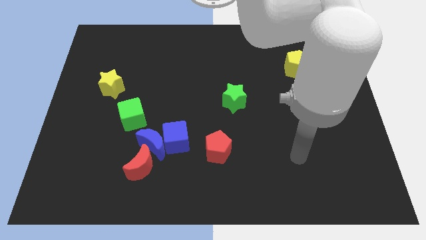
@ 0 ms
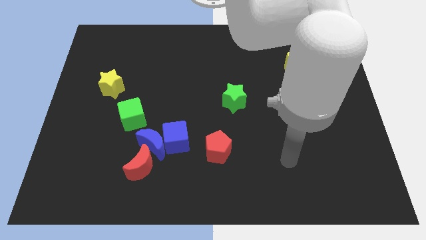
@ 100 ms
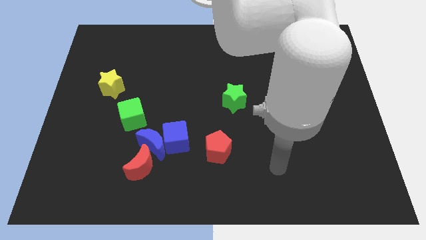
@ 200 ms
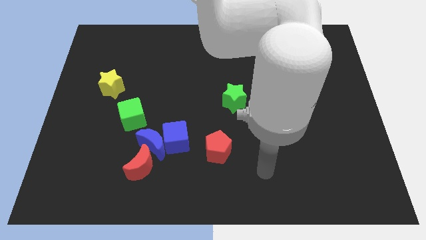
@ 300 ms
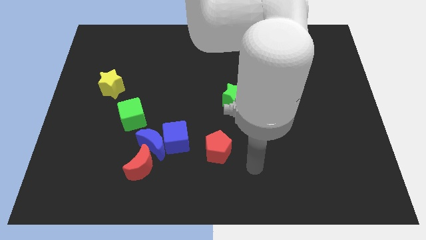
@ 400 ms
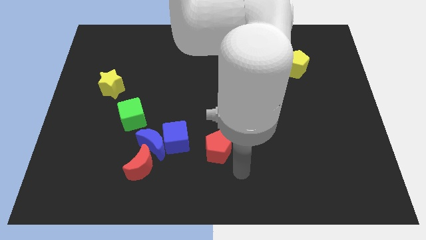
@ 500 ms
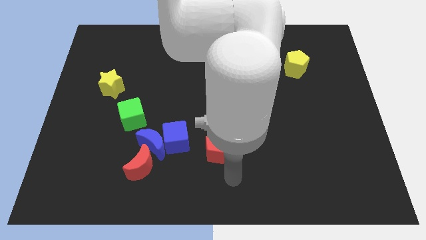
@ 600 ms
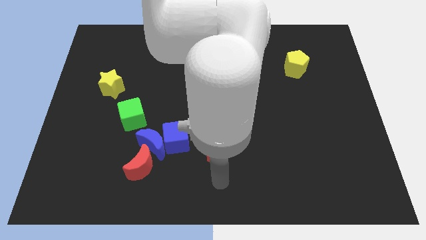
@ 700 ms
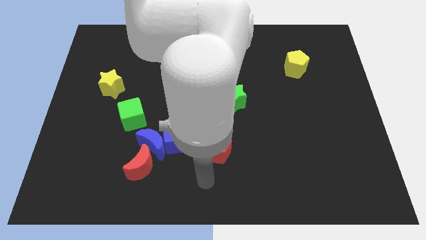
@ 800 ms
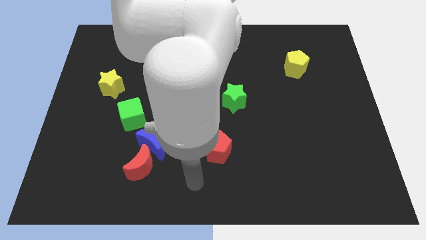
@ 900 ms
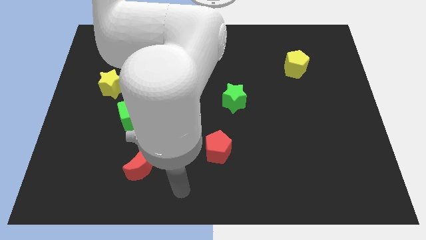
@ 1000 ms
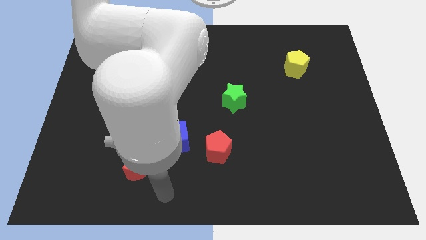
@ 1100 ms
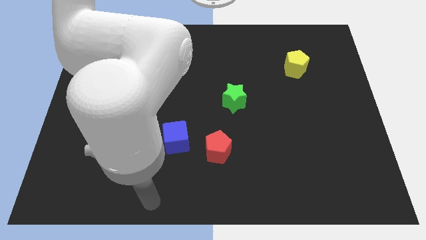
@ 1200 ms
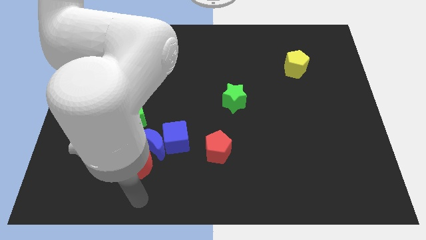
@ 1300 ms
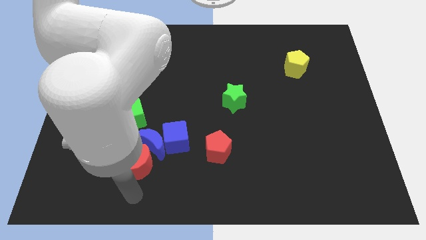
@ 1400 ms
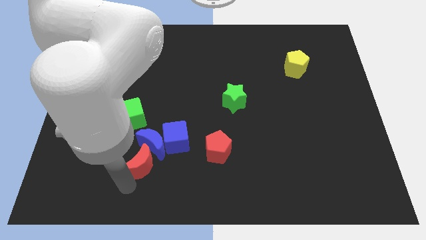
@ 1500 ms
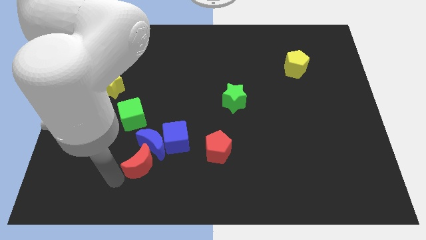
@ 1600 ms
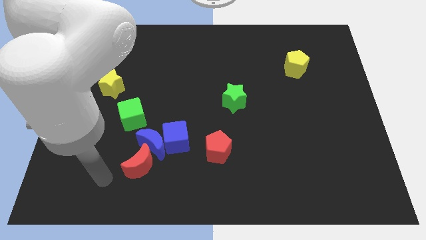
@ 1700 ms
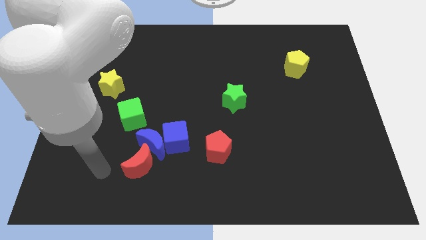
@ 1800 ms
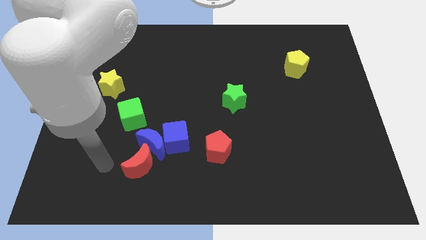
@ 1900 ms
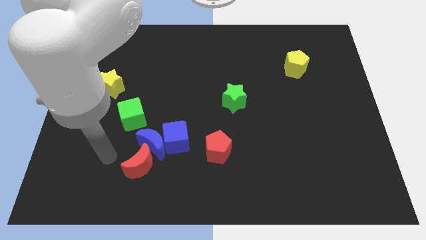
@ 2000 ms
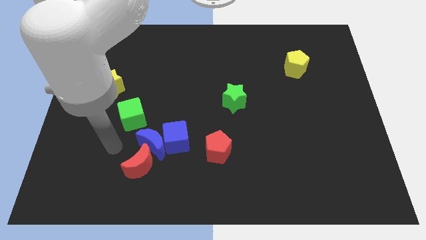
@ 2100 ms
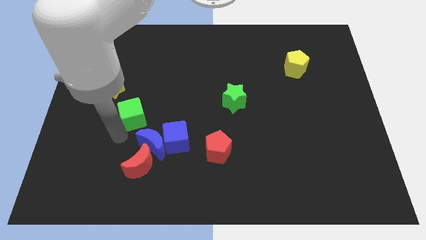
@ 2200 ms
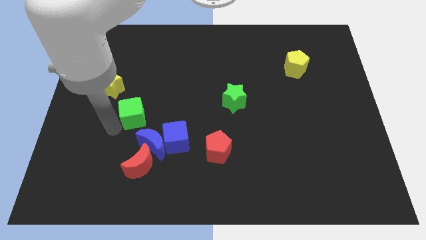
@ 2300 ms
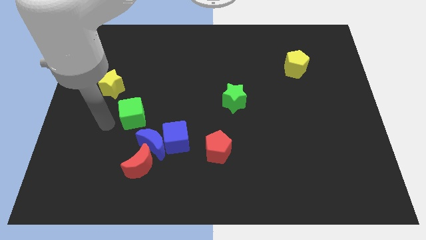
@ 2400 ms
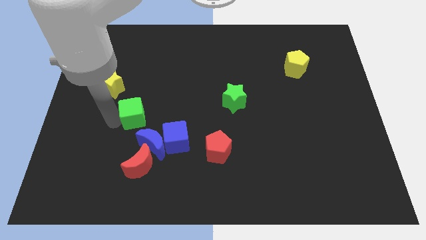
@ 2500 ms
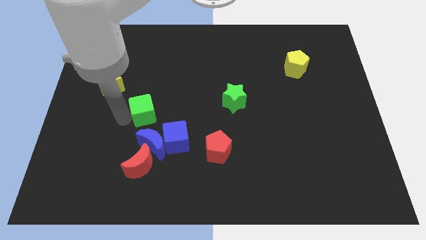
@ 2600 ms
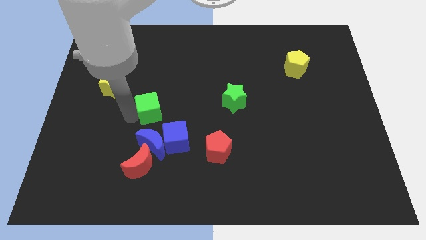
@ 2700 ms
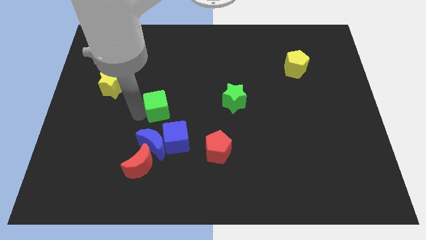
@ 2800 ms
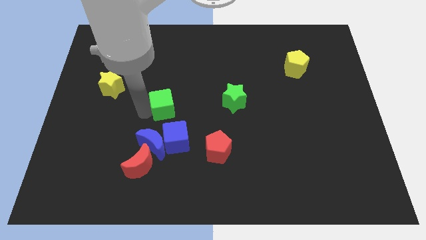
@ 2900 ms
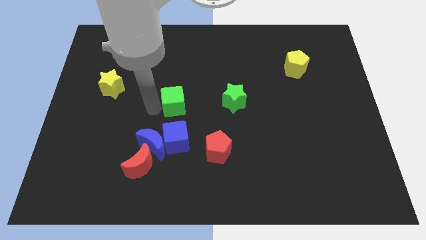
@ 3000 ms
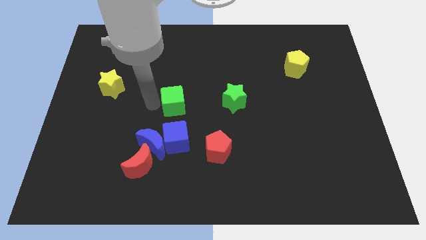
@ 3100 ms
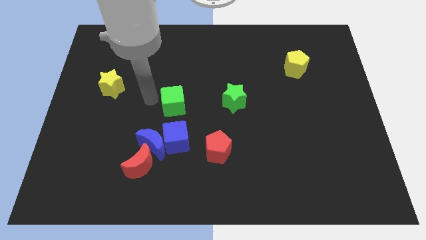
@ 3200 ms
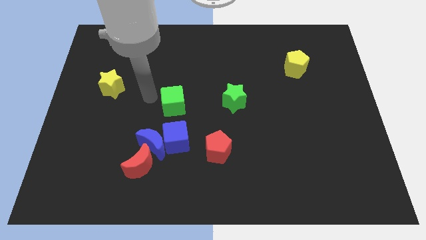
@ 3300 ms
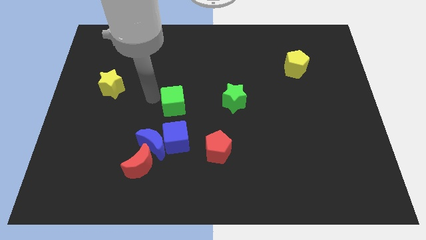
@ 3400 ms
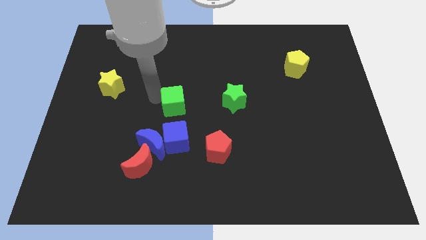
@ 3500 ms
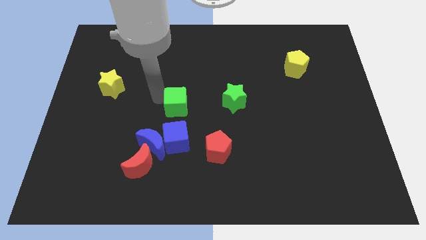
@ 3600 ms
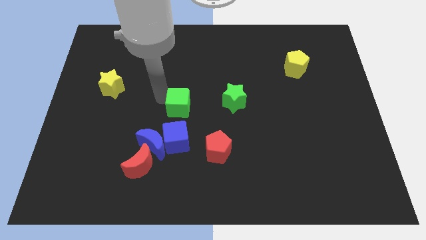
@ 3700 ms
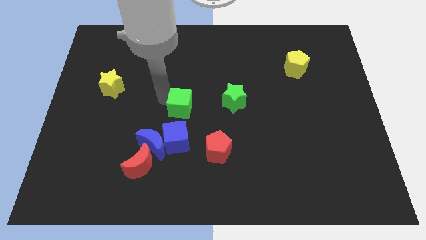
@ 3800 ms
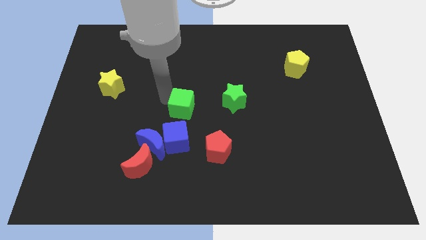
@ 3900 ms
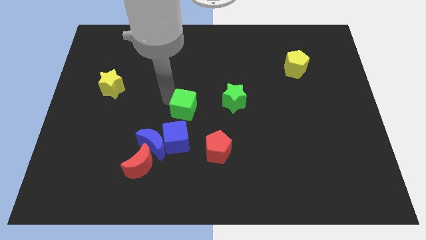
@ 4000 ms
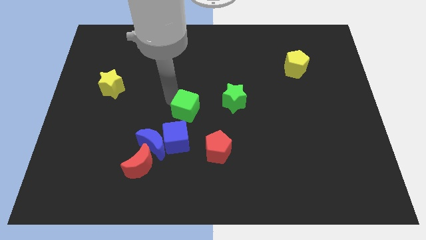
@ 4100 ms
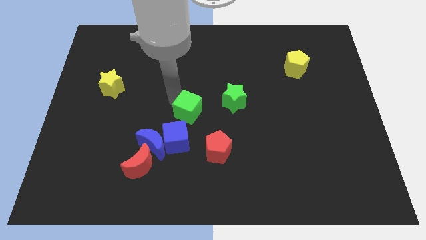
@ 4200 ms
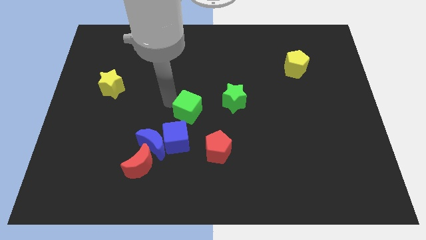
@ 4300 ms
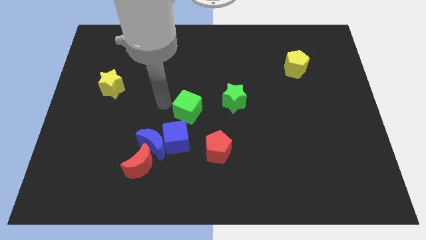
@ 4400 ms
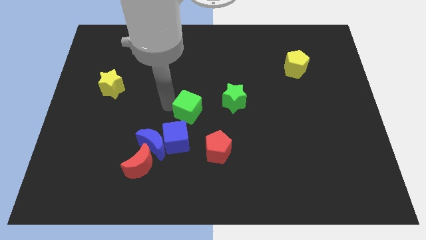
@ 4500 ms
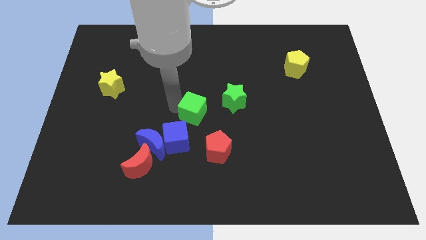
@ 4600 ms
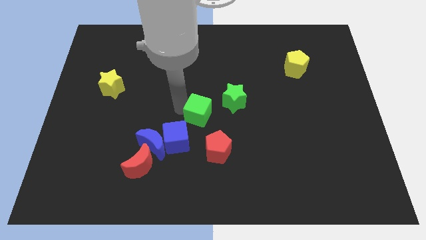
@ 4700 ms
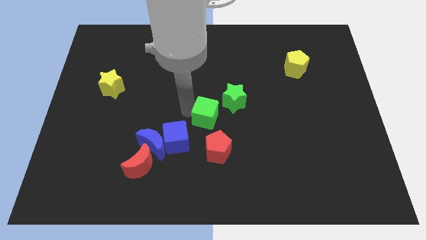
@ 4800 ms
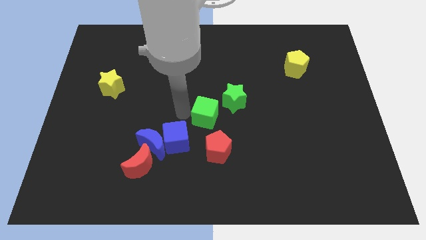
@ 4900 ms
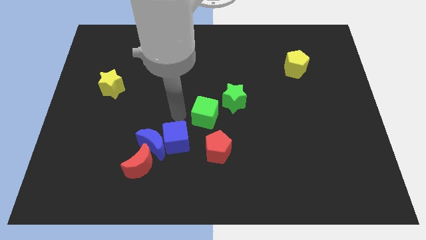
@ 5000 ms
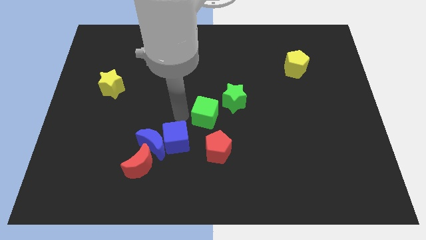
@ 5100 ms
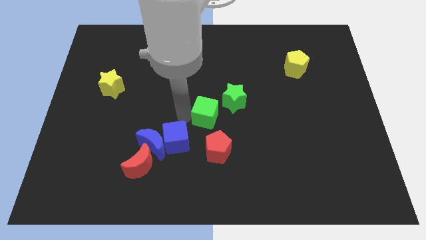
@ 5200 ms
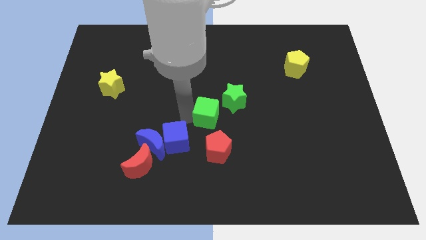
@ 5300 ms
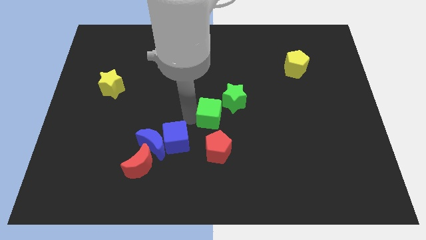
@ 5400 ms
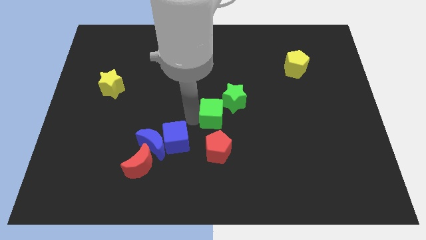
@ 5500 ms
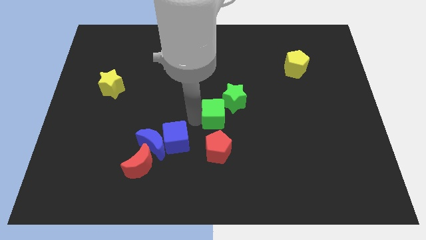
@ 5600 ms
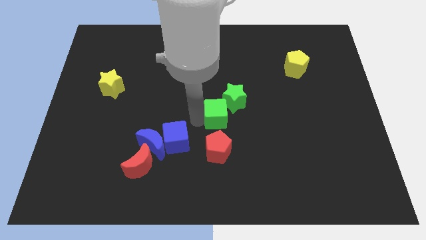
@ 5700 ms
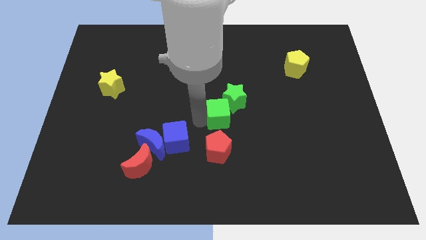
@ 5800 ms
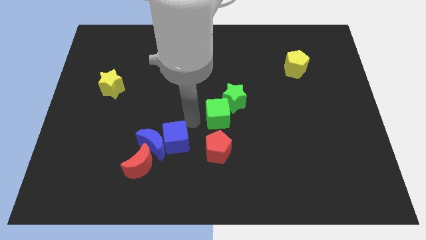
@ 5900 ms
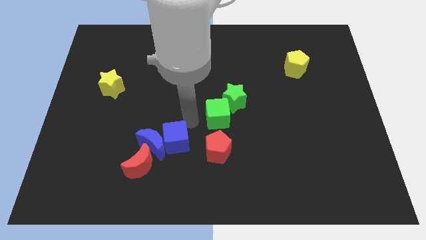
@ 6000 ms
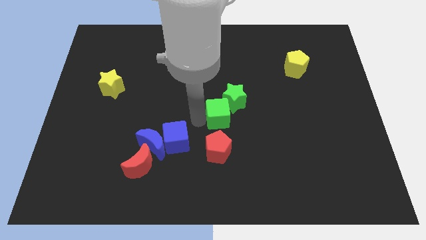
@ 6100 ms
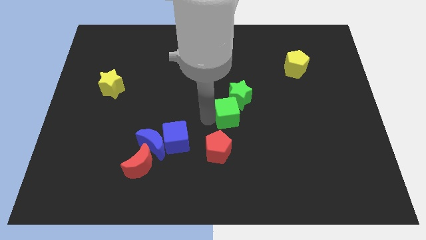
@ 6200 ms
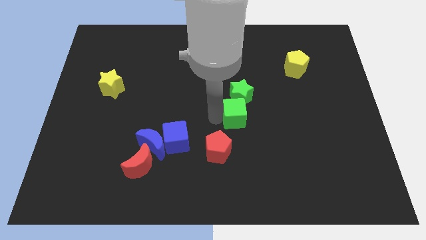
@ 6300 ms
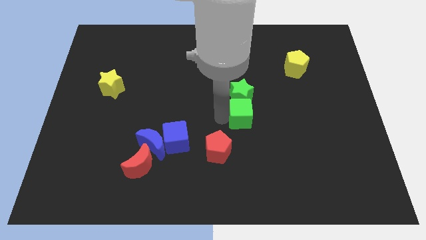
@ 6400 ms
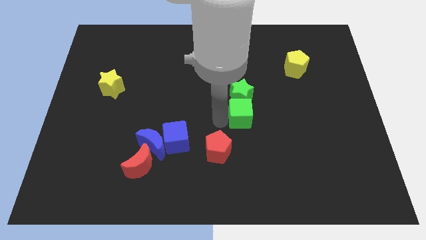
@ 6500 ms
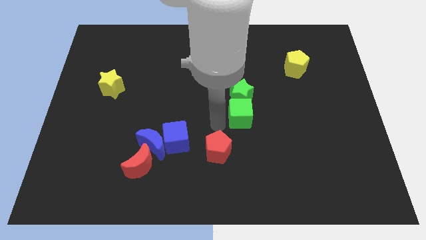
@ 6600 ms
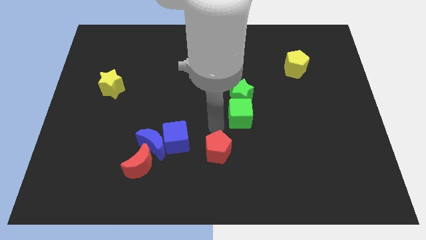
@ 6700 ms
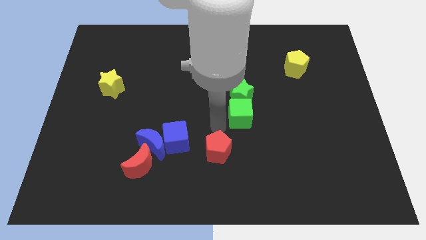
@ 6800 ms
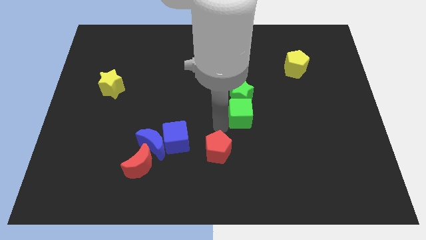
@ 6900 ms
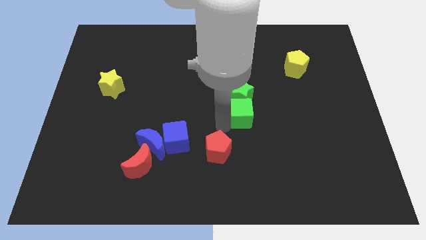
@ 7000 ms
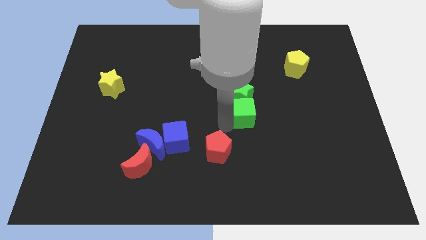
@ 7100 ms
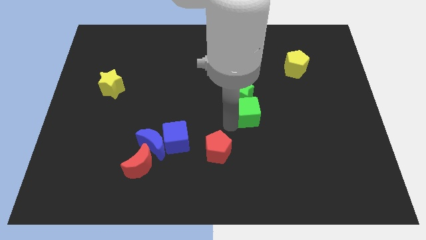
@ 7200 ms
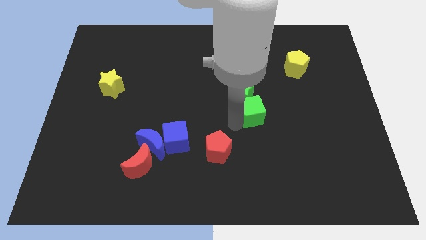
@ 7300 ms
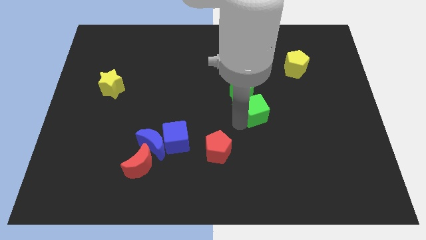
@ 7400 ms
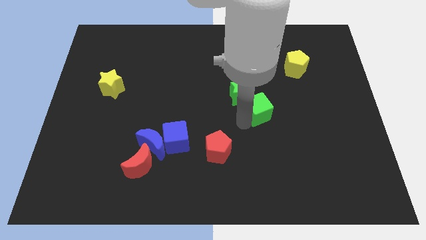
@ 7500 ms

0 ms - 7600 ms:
slide the green cube just right of the green star
